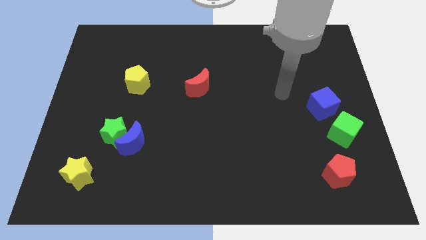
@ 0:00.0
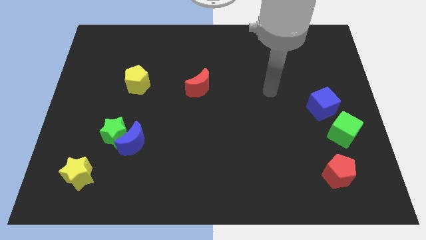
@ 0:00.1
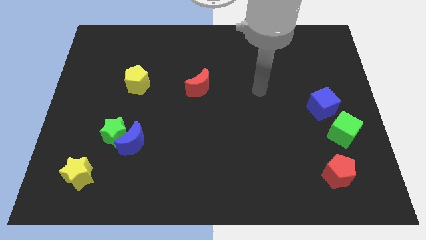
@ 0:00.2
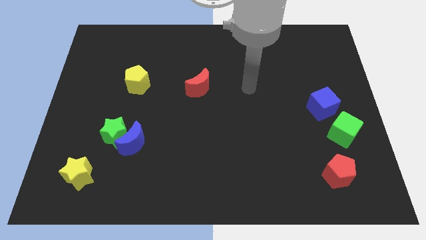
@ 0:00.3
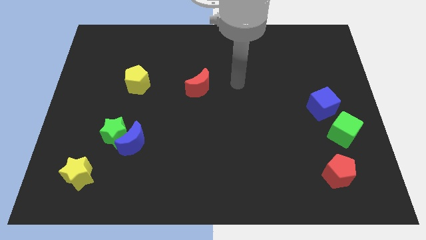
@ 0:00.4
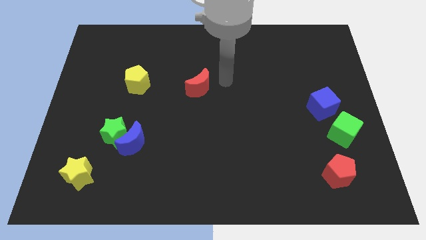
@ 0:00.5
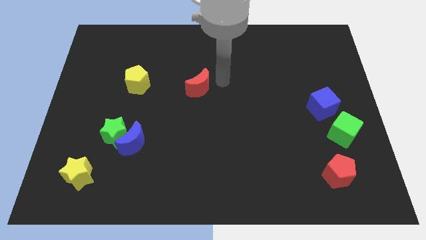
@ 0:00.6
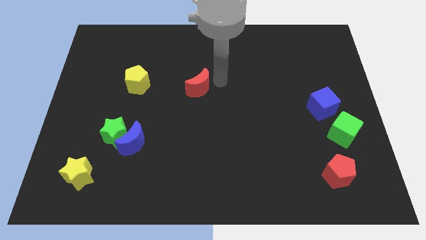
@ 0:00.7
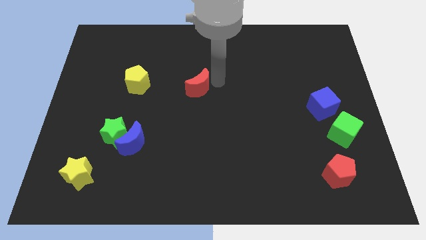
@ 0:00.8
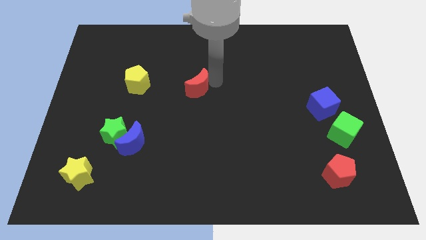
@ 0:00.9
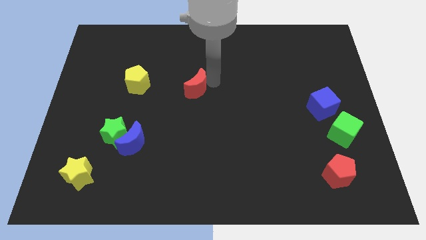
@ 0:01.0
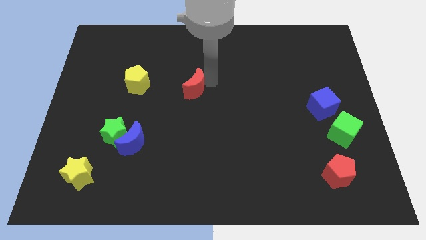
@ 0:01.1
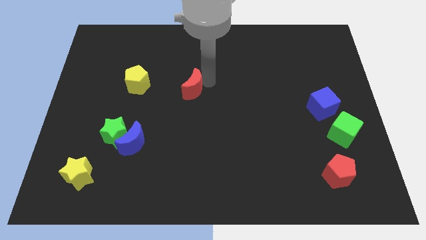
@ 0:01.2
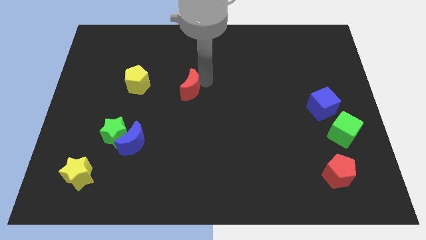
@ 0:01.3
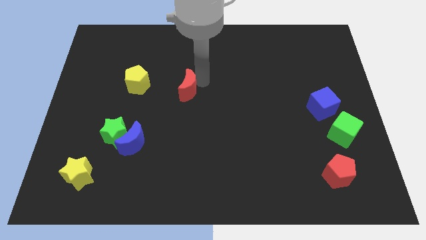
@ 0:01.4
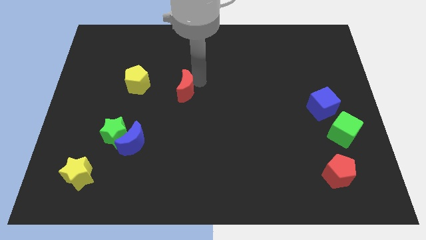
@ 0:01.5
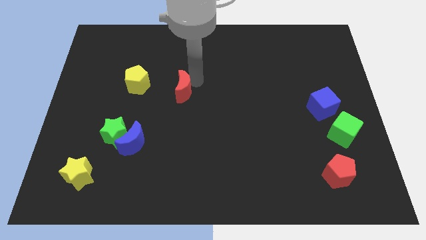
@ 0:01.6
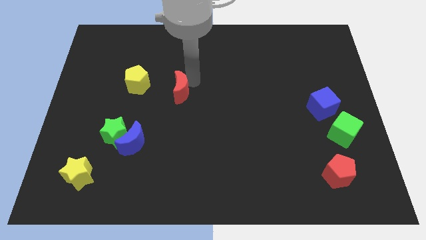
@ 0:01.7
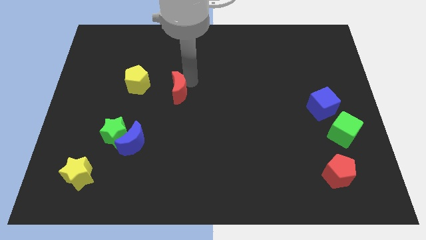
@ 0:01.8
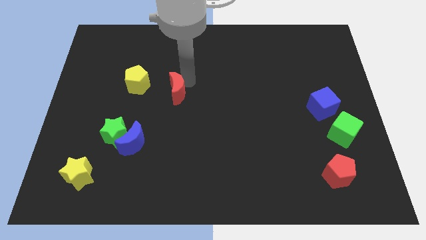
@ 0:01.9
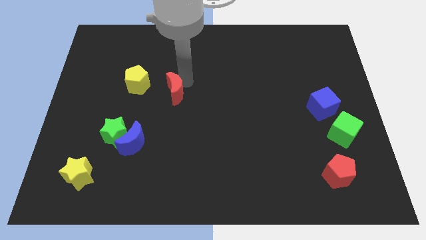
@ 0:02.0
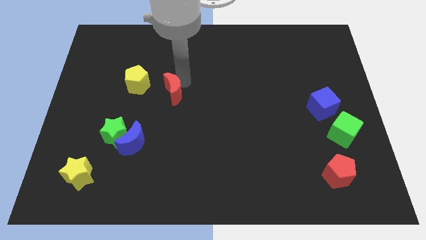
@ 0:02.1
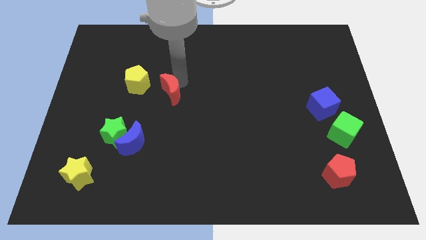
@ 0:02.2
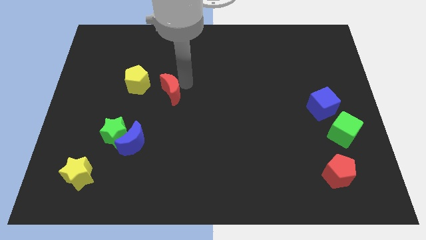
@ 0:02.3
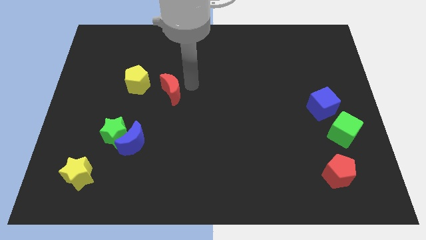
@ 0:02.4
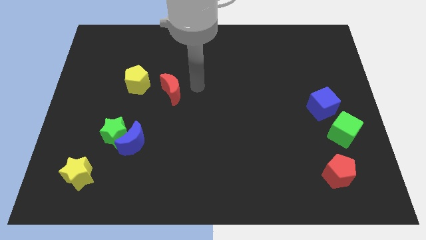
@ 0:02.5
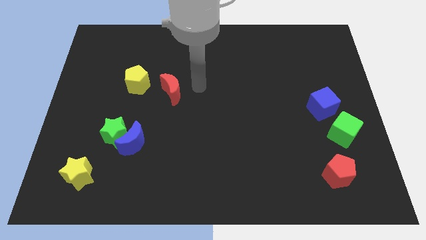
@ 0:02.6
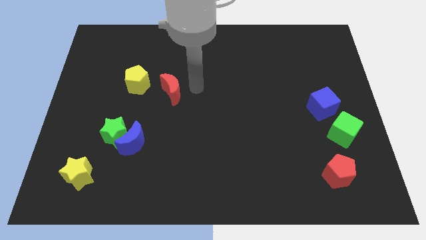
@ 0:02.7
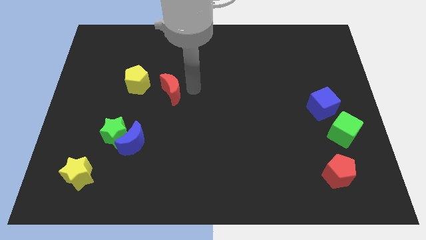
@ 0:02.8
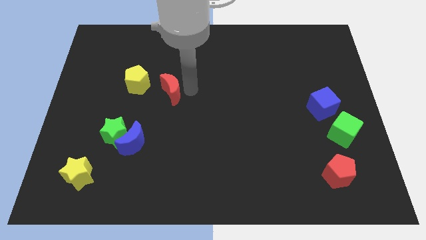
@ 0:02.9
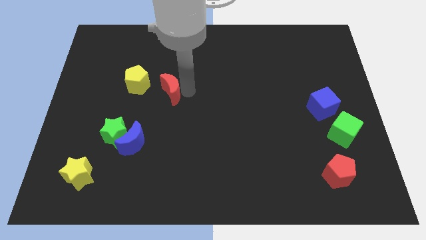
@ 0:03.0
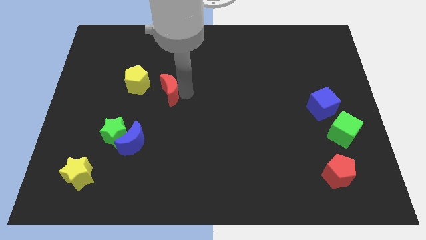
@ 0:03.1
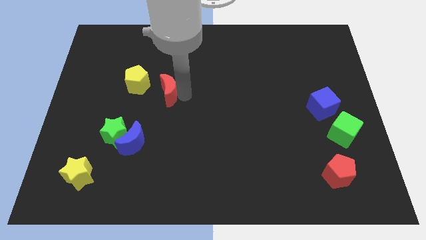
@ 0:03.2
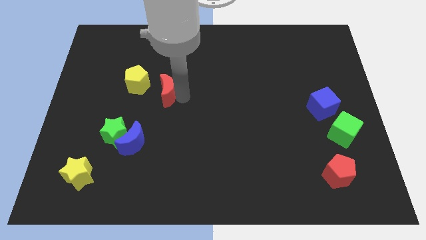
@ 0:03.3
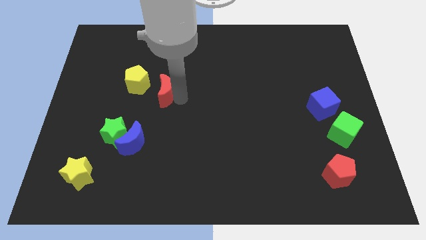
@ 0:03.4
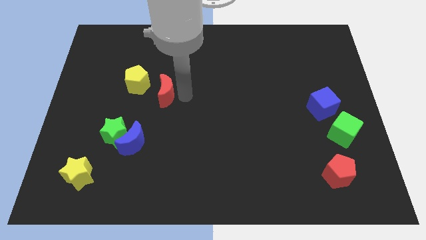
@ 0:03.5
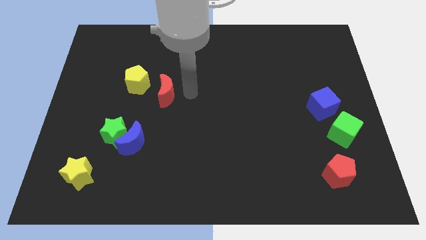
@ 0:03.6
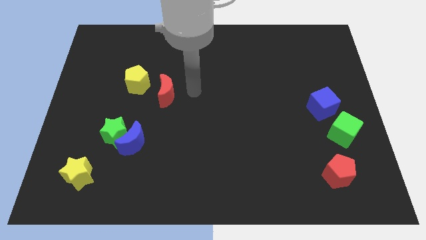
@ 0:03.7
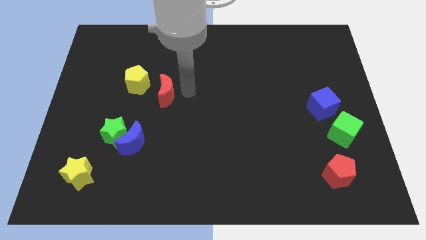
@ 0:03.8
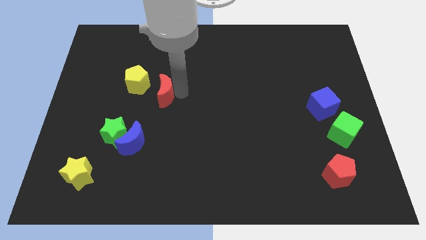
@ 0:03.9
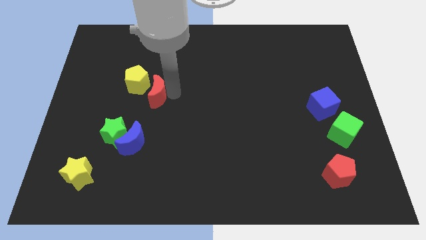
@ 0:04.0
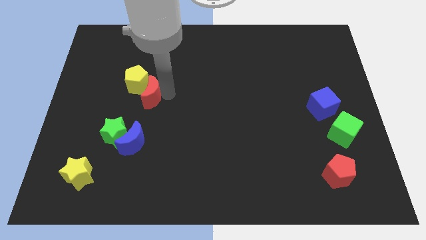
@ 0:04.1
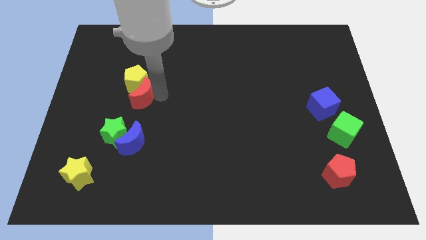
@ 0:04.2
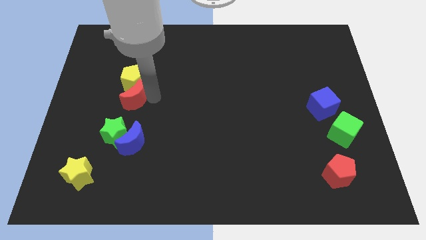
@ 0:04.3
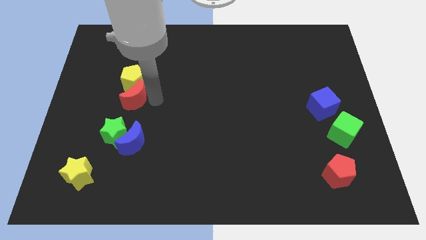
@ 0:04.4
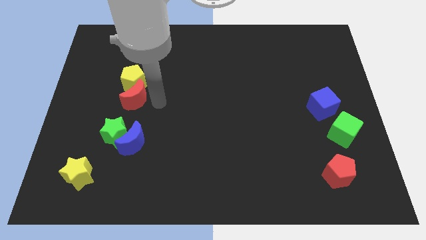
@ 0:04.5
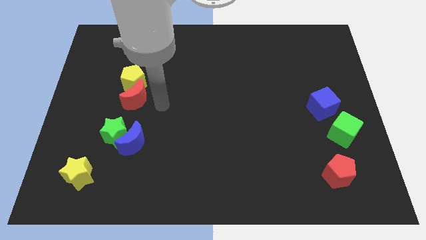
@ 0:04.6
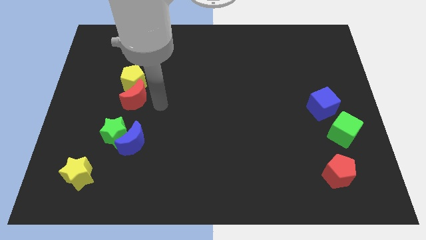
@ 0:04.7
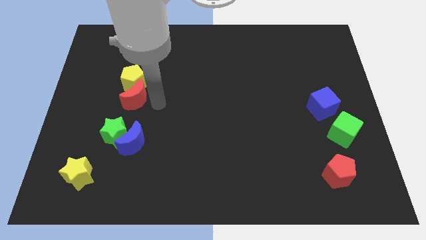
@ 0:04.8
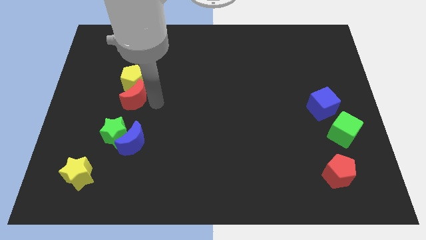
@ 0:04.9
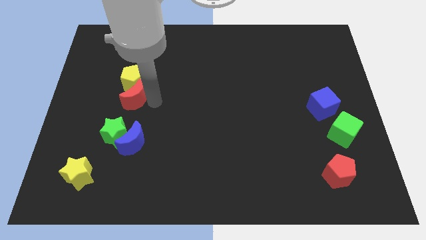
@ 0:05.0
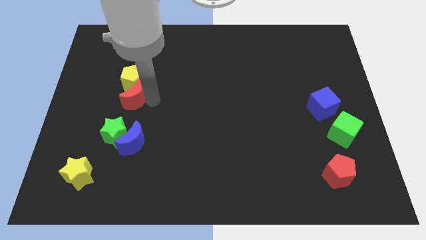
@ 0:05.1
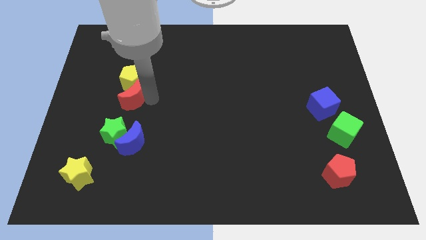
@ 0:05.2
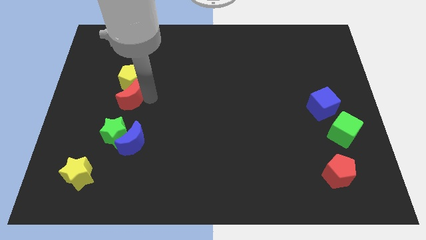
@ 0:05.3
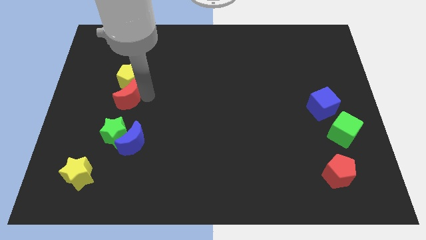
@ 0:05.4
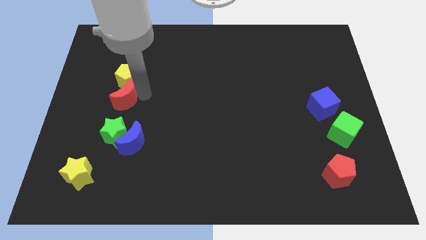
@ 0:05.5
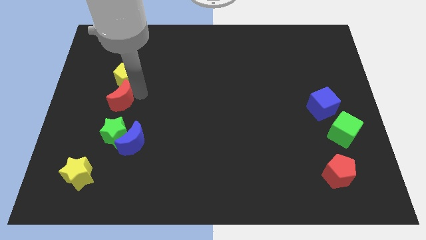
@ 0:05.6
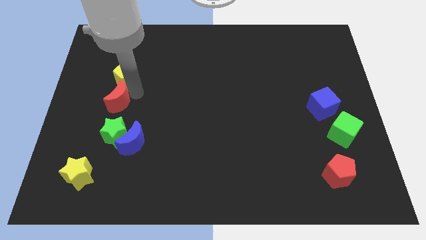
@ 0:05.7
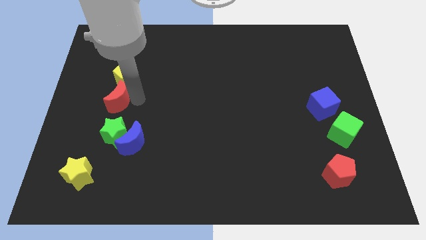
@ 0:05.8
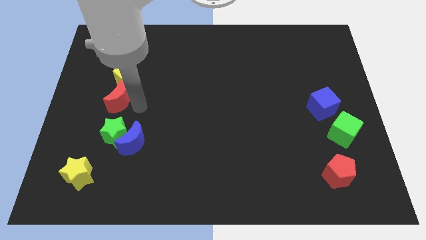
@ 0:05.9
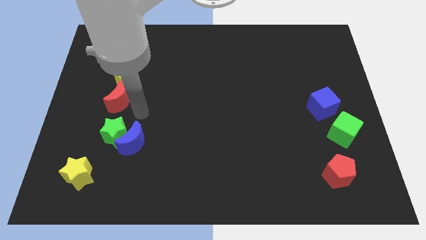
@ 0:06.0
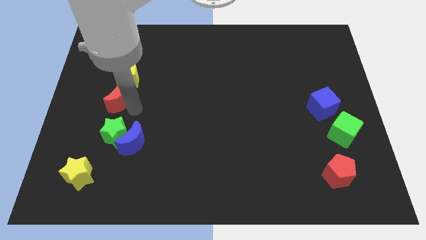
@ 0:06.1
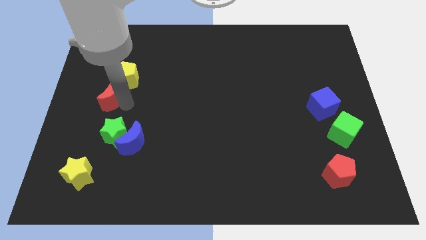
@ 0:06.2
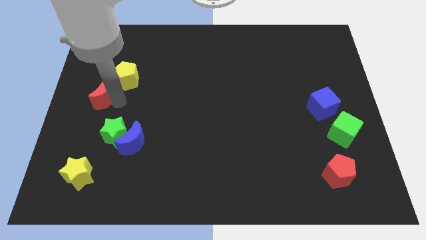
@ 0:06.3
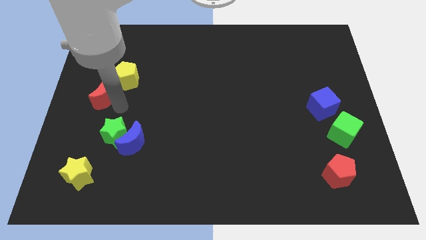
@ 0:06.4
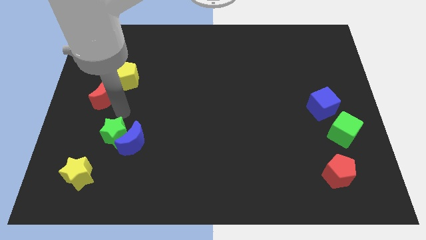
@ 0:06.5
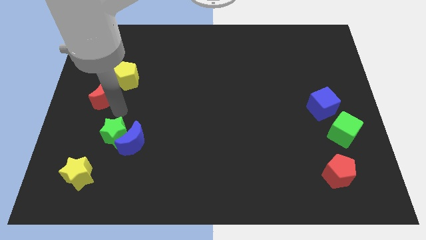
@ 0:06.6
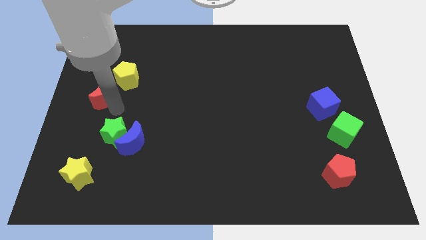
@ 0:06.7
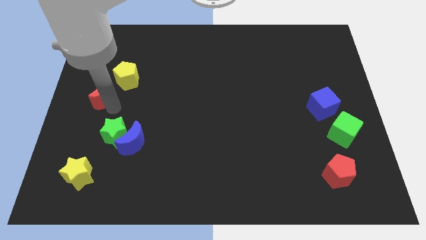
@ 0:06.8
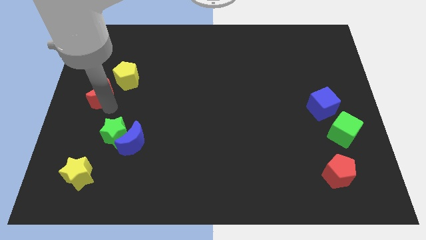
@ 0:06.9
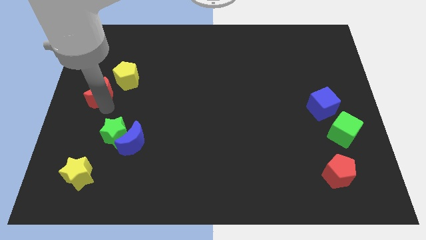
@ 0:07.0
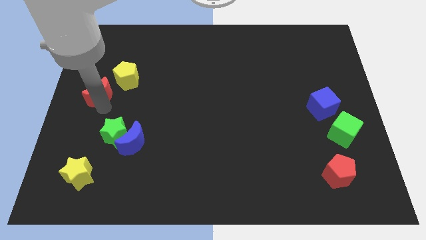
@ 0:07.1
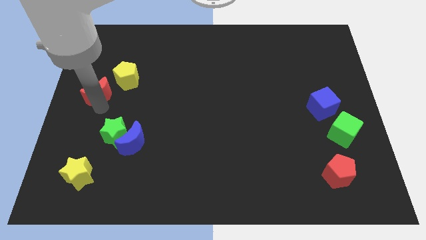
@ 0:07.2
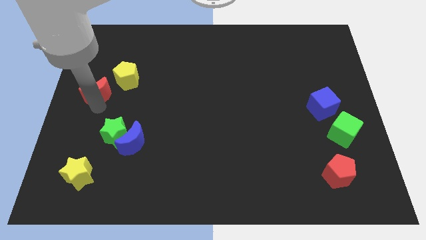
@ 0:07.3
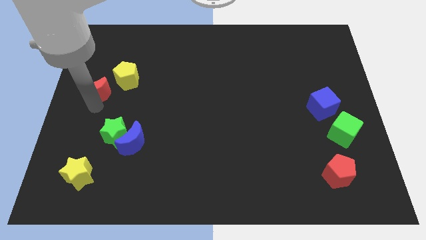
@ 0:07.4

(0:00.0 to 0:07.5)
put the red moon to the left of the yellow pentagon
